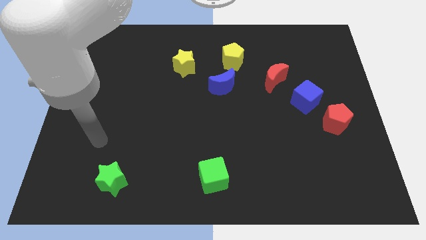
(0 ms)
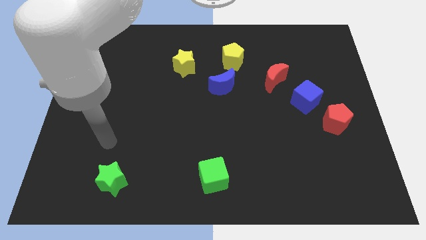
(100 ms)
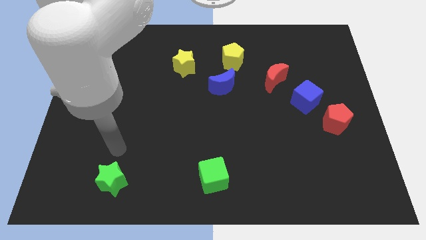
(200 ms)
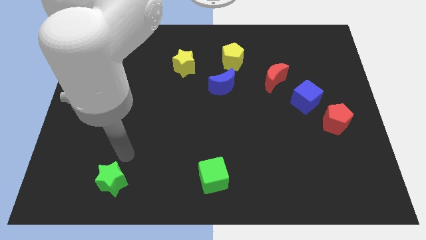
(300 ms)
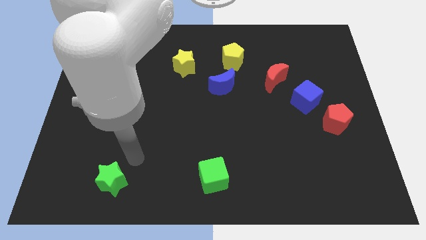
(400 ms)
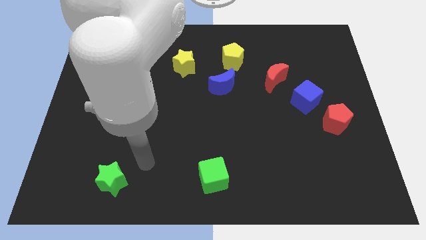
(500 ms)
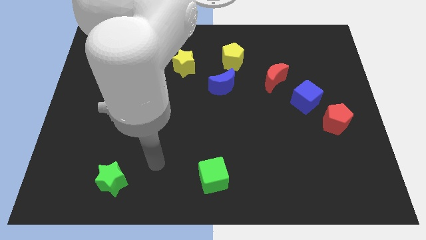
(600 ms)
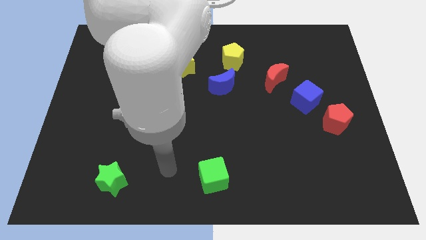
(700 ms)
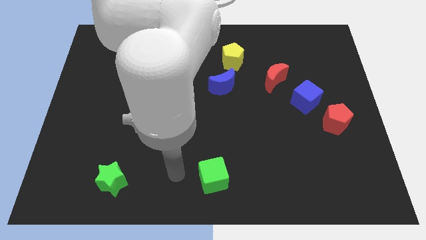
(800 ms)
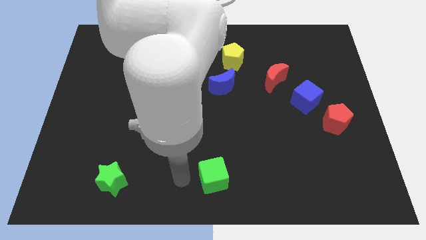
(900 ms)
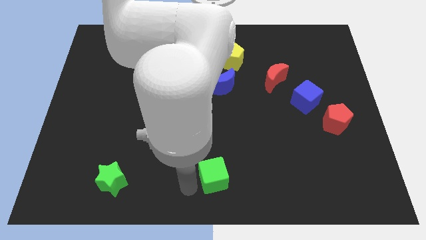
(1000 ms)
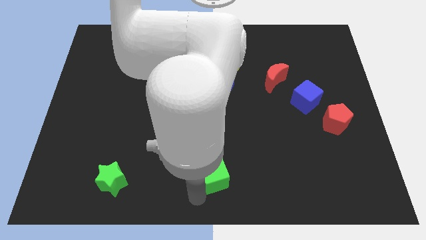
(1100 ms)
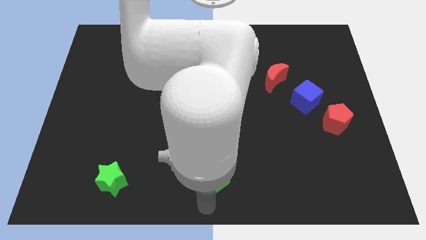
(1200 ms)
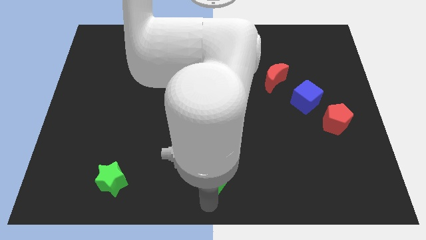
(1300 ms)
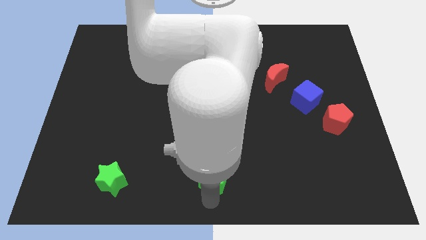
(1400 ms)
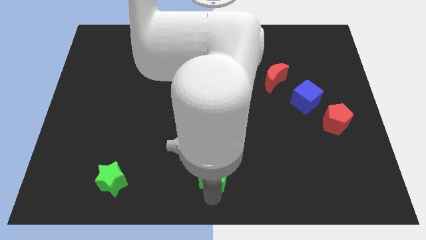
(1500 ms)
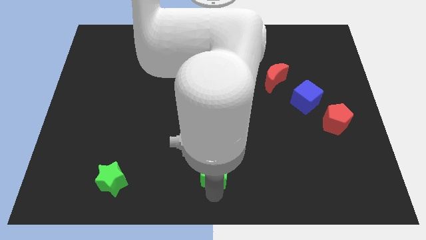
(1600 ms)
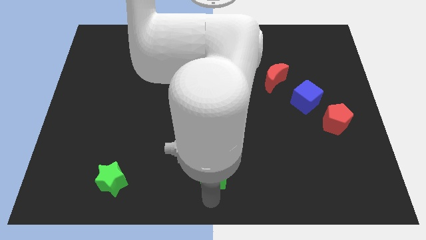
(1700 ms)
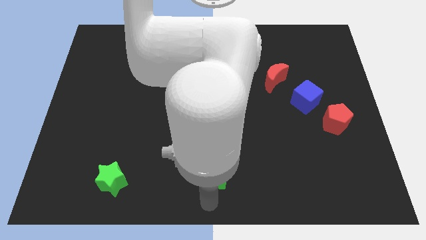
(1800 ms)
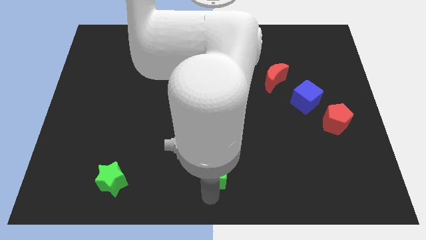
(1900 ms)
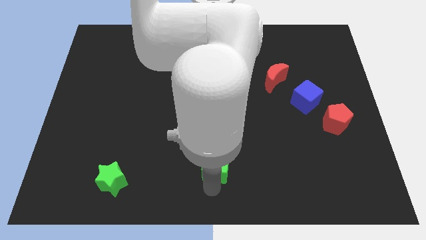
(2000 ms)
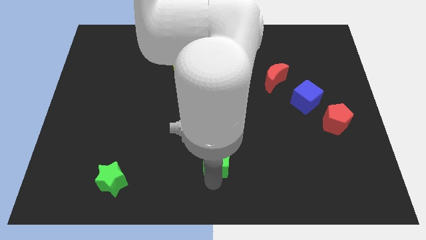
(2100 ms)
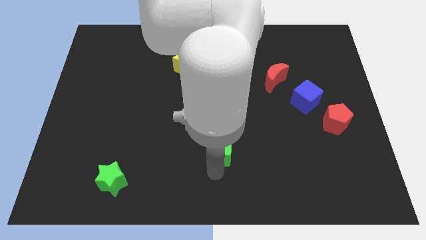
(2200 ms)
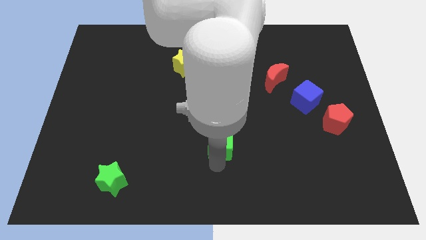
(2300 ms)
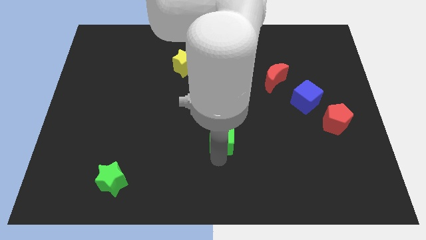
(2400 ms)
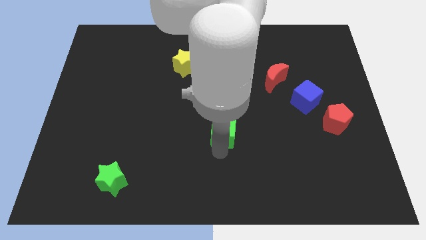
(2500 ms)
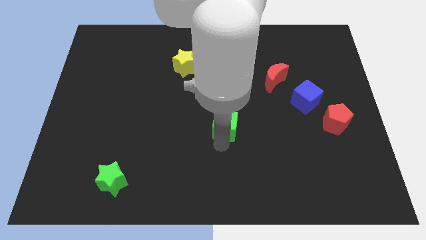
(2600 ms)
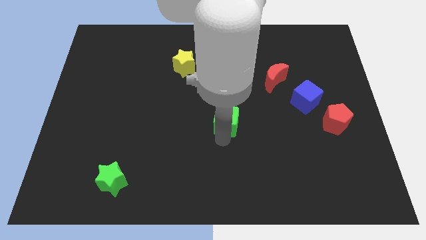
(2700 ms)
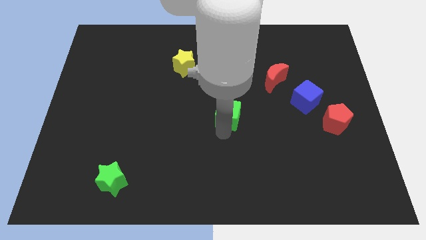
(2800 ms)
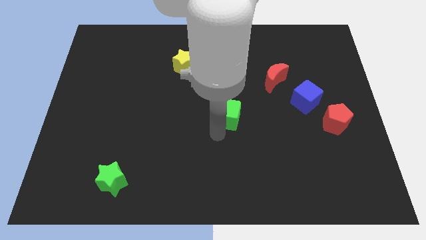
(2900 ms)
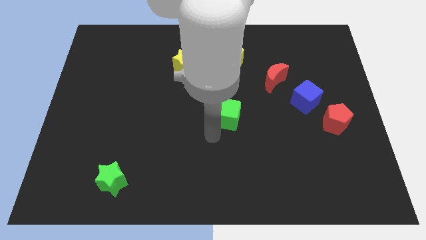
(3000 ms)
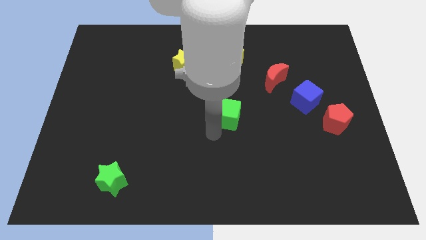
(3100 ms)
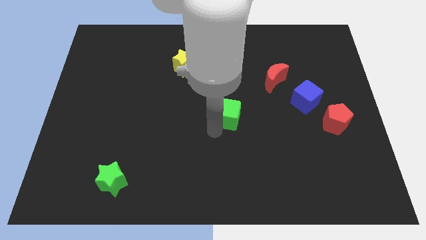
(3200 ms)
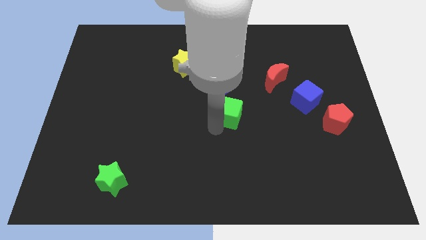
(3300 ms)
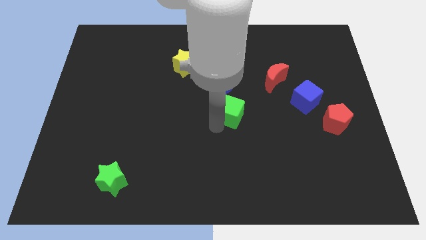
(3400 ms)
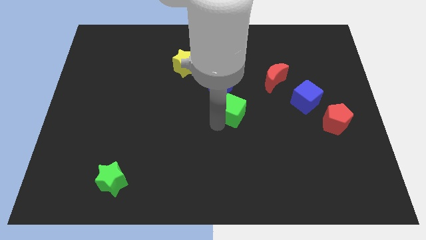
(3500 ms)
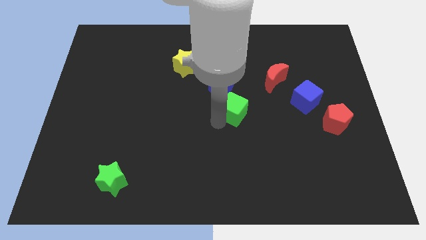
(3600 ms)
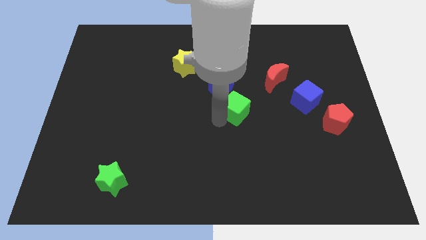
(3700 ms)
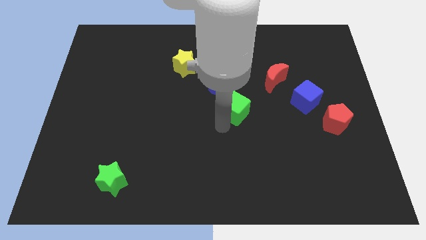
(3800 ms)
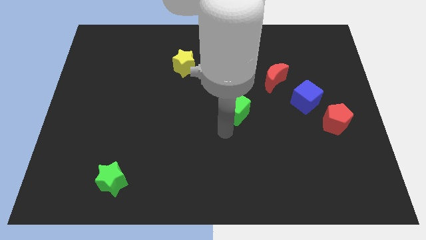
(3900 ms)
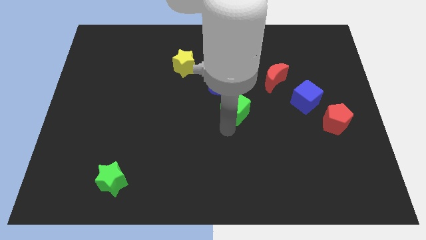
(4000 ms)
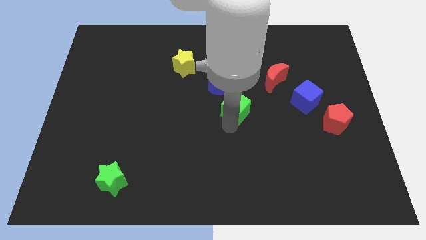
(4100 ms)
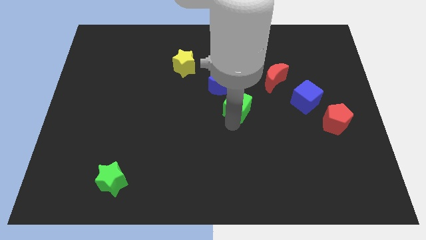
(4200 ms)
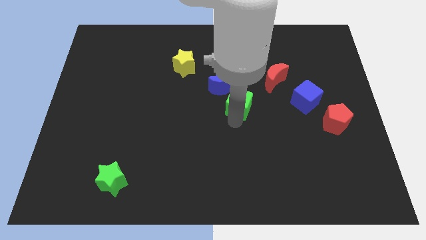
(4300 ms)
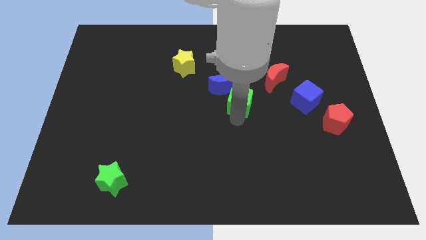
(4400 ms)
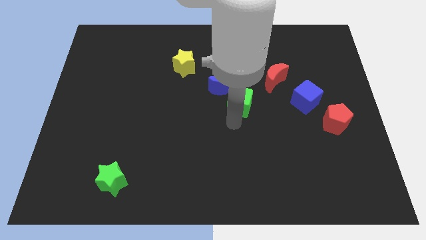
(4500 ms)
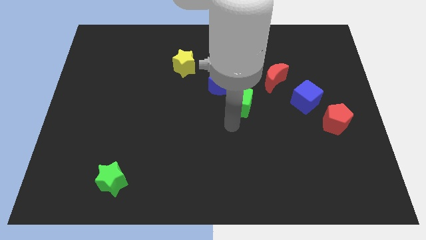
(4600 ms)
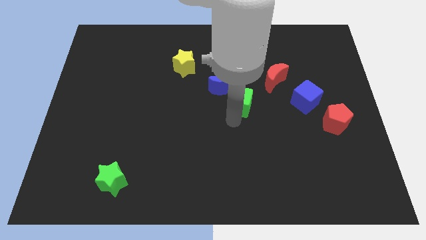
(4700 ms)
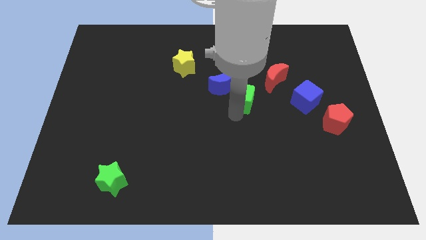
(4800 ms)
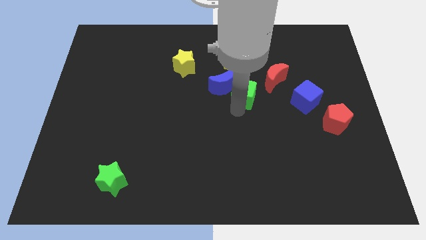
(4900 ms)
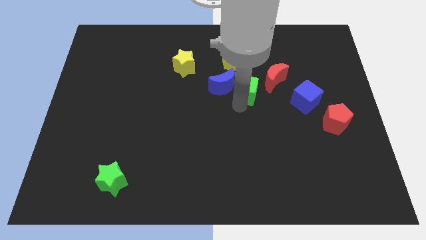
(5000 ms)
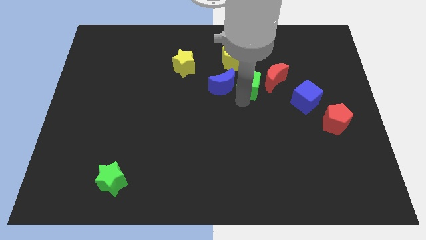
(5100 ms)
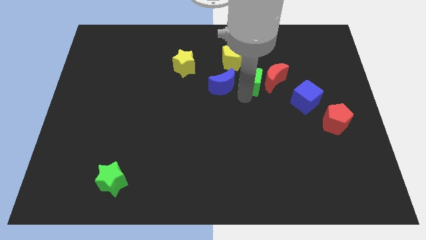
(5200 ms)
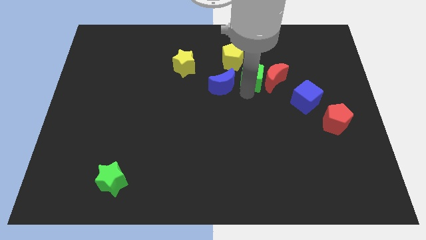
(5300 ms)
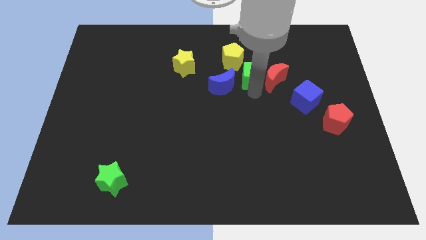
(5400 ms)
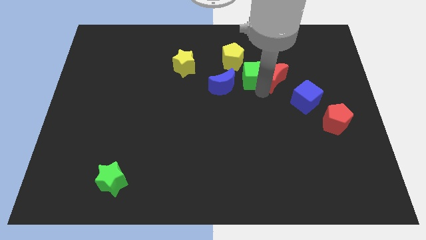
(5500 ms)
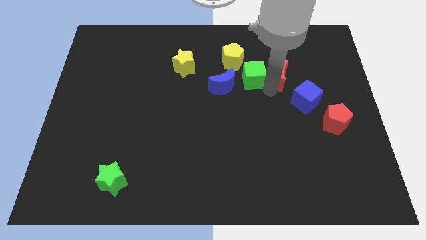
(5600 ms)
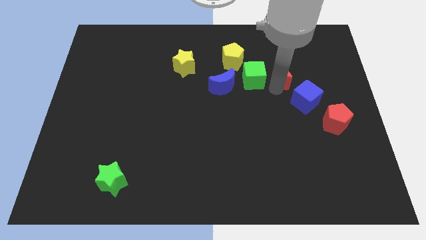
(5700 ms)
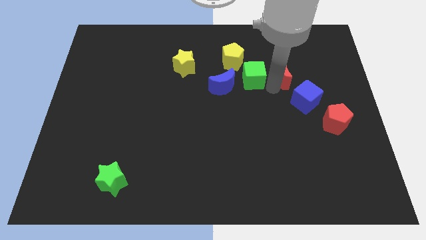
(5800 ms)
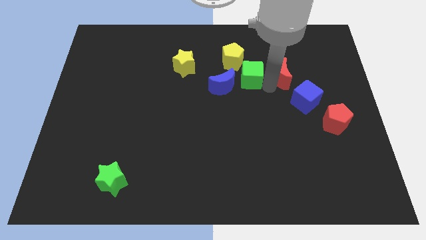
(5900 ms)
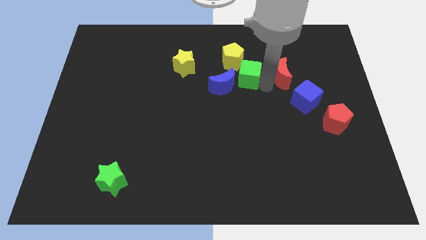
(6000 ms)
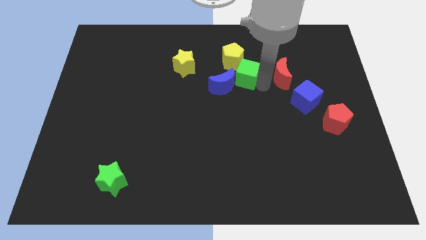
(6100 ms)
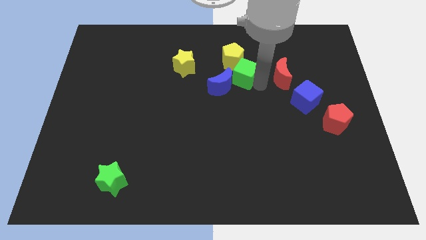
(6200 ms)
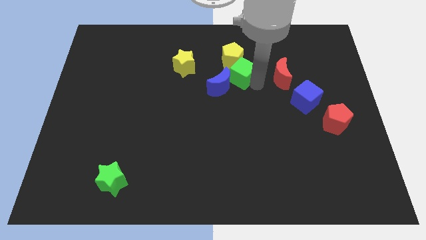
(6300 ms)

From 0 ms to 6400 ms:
slide the green cube just right of the yellow star
